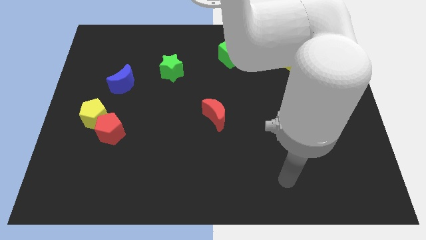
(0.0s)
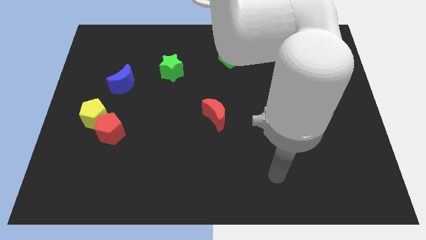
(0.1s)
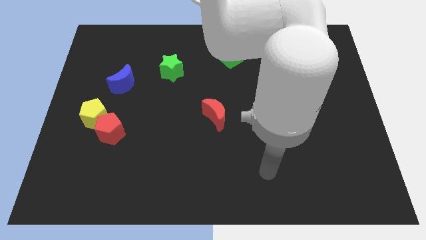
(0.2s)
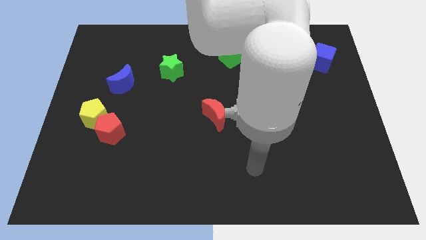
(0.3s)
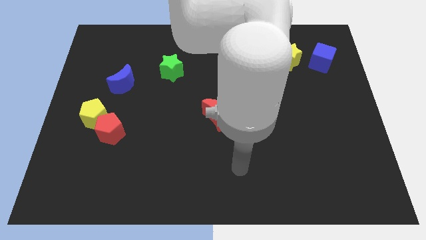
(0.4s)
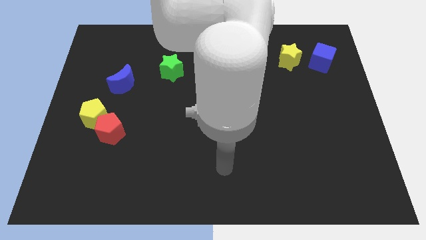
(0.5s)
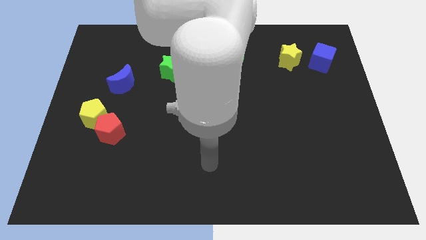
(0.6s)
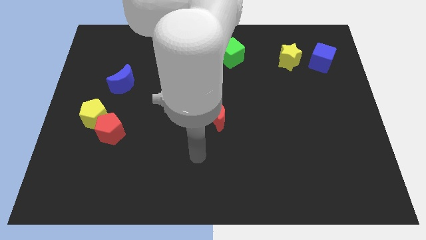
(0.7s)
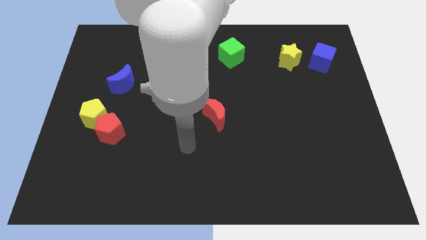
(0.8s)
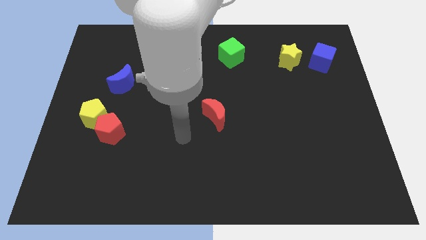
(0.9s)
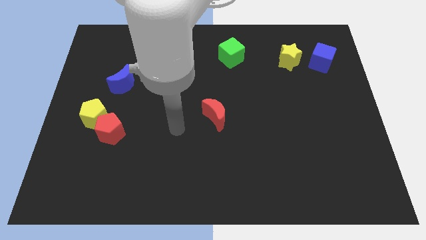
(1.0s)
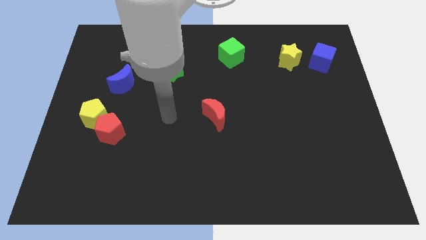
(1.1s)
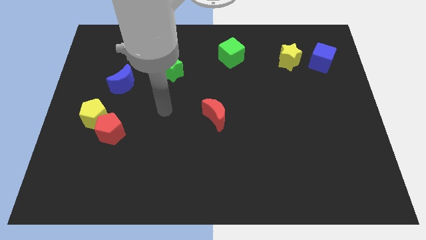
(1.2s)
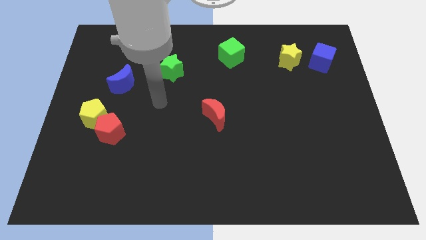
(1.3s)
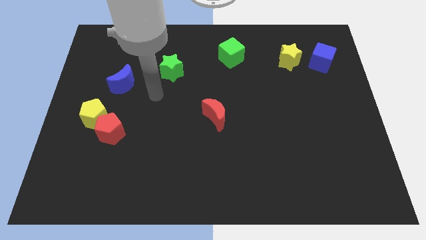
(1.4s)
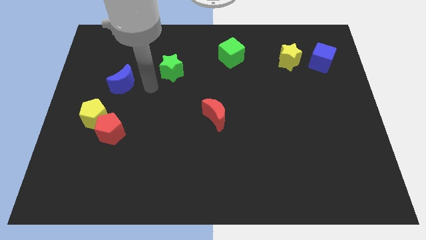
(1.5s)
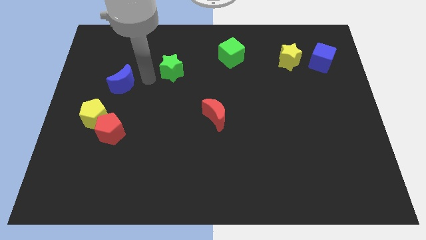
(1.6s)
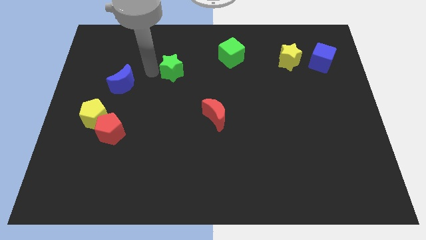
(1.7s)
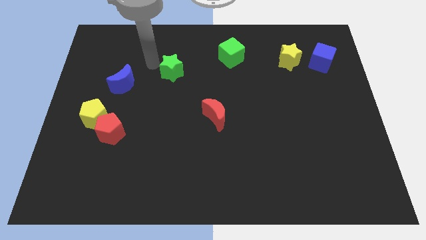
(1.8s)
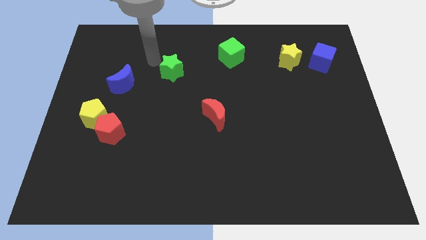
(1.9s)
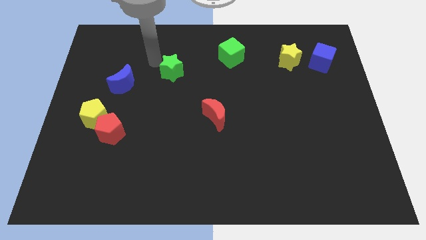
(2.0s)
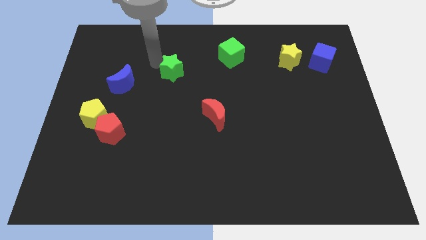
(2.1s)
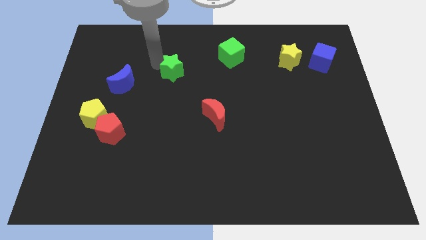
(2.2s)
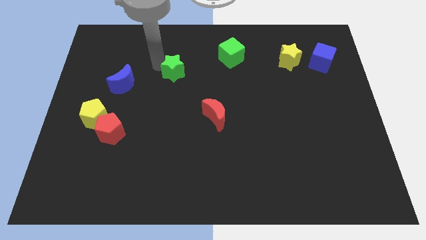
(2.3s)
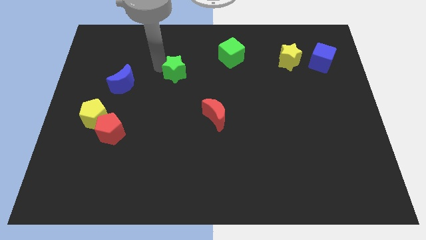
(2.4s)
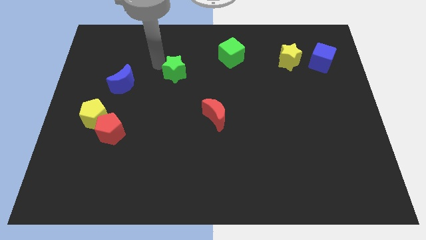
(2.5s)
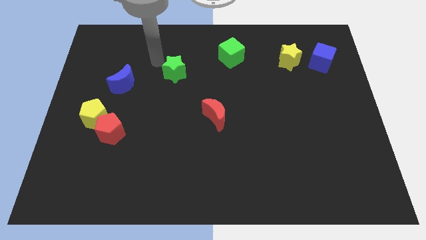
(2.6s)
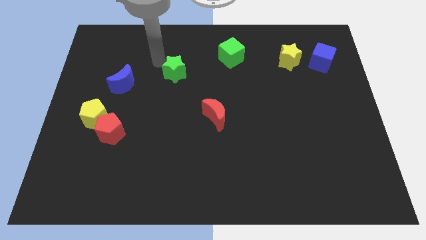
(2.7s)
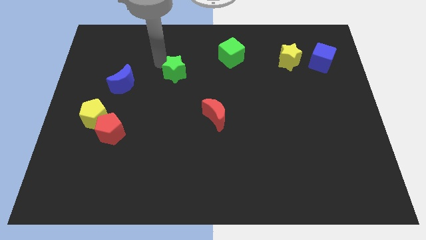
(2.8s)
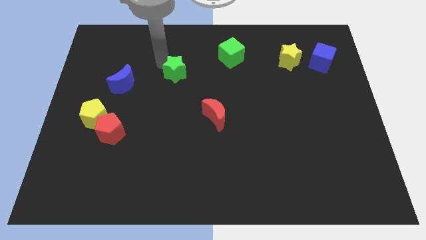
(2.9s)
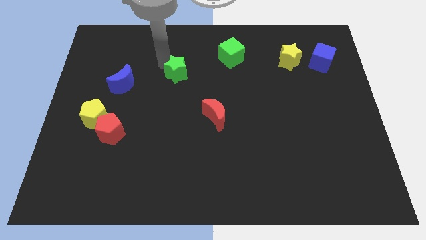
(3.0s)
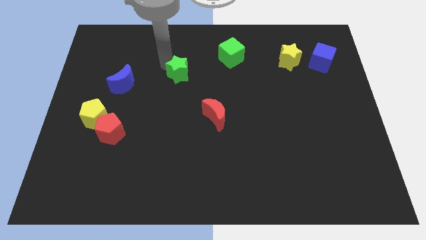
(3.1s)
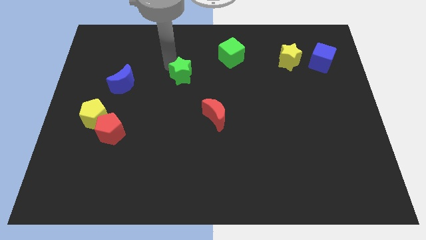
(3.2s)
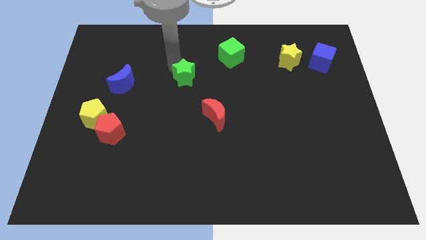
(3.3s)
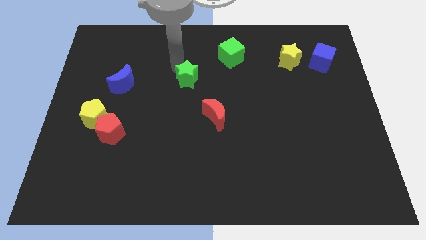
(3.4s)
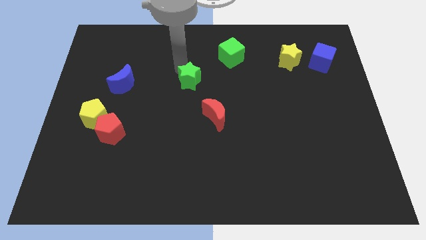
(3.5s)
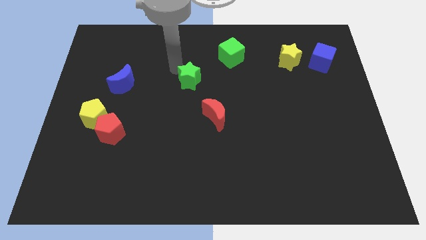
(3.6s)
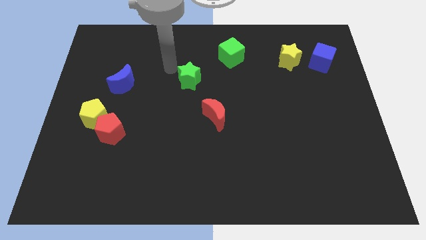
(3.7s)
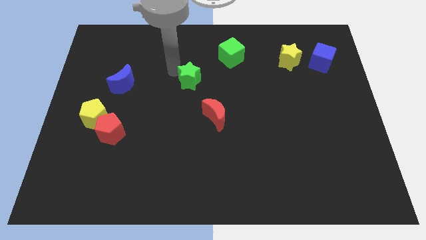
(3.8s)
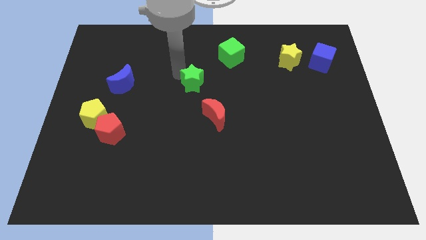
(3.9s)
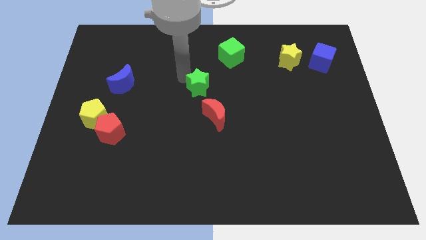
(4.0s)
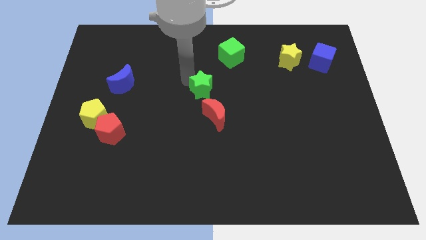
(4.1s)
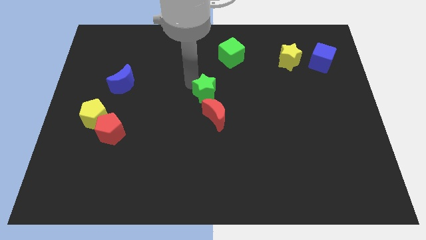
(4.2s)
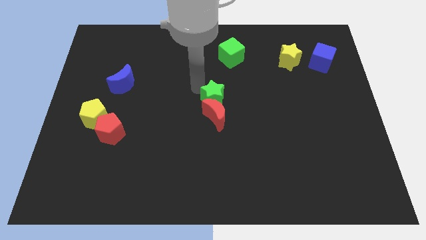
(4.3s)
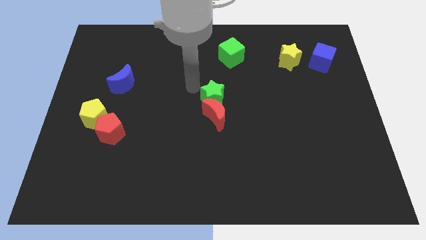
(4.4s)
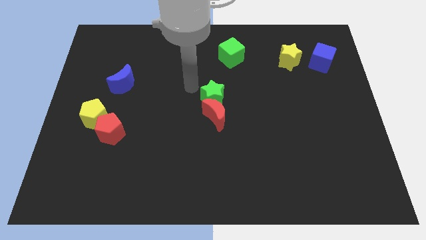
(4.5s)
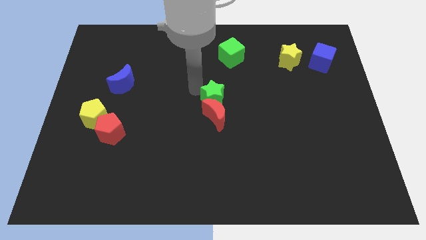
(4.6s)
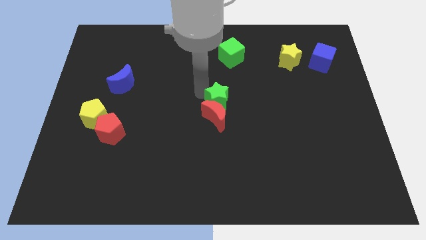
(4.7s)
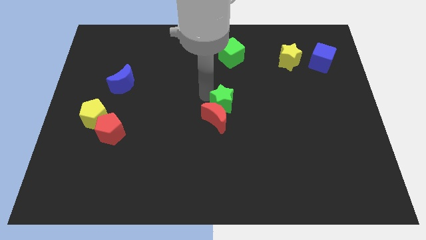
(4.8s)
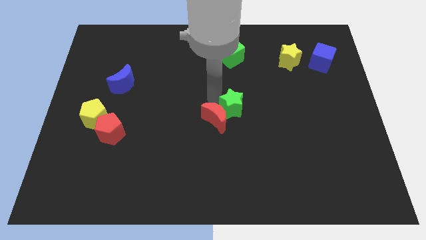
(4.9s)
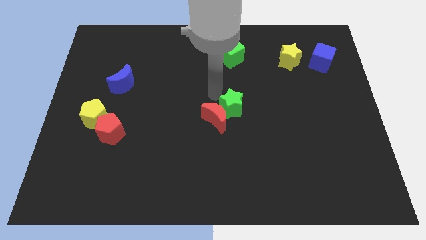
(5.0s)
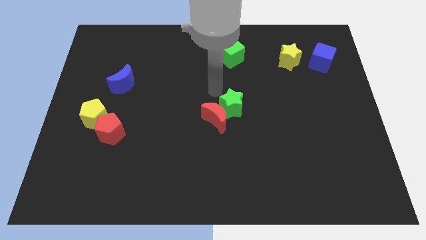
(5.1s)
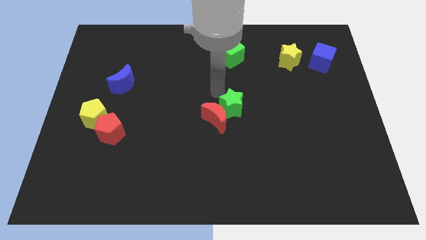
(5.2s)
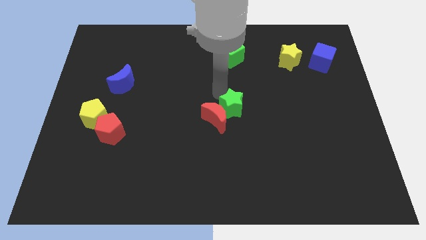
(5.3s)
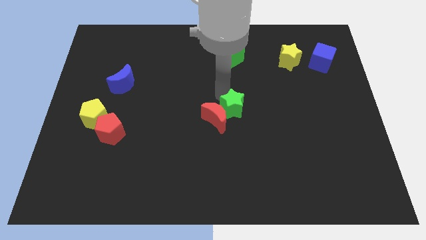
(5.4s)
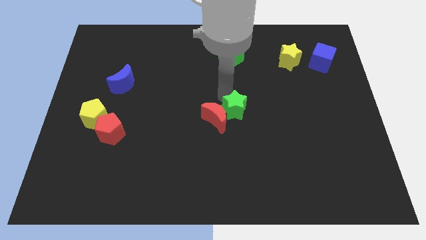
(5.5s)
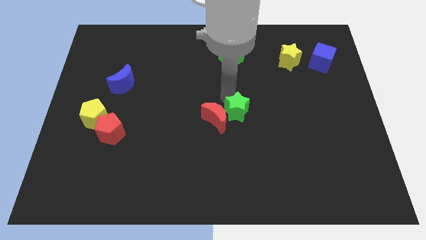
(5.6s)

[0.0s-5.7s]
slide the green star down and to the right diagonally

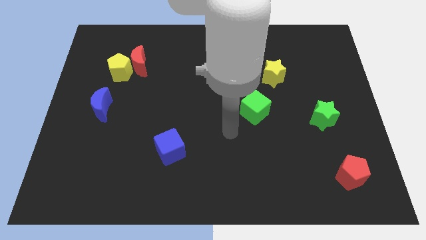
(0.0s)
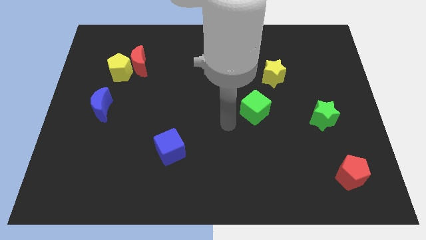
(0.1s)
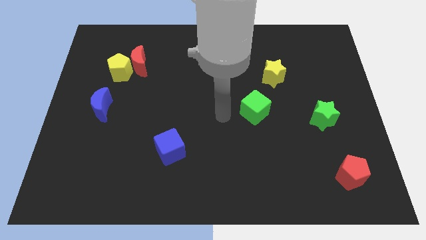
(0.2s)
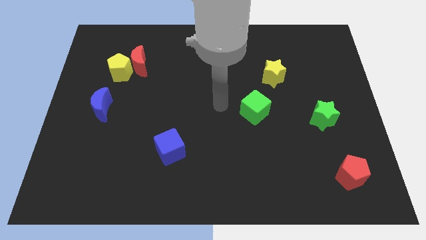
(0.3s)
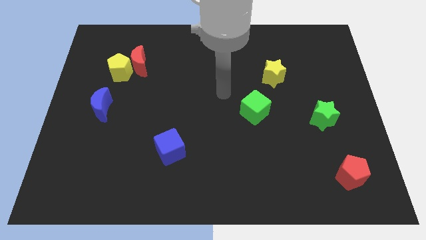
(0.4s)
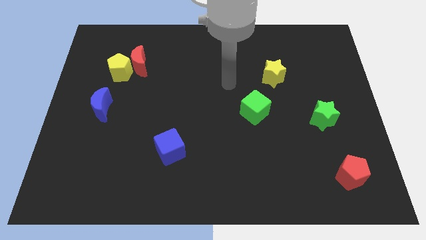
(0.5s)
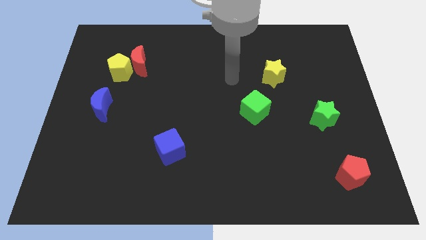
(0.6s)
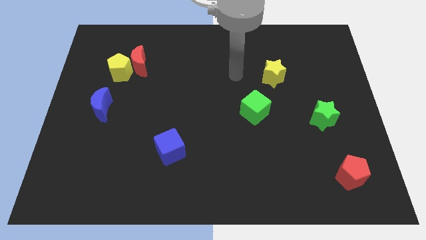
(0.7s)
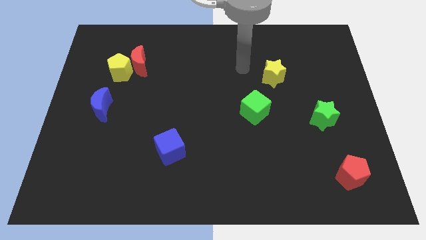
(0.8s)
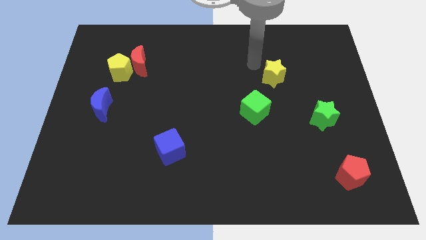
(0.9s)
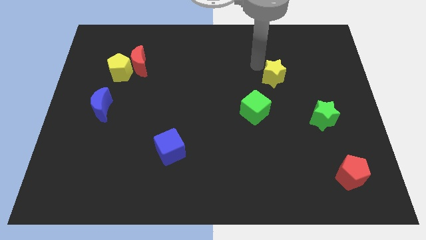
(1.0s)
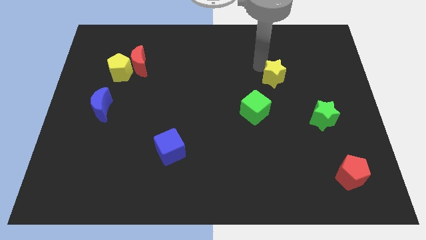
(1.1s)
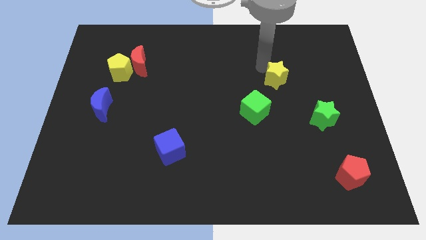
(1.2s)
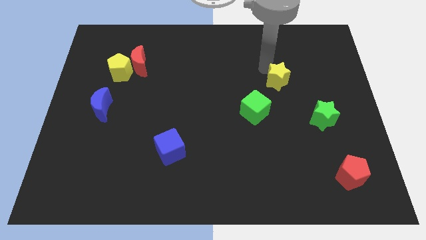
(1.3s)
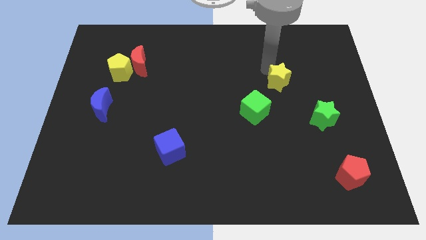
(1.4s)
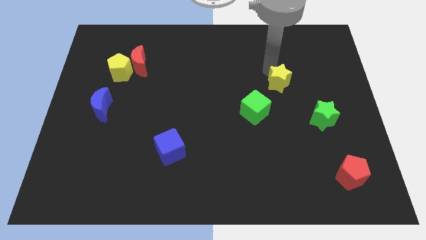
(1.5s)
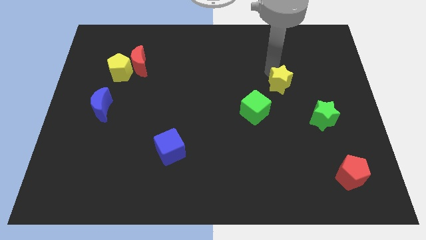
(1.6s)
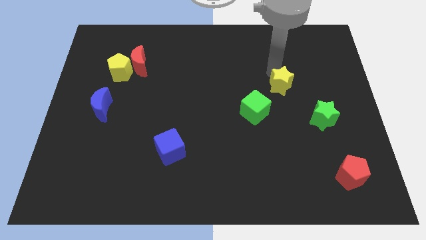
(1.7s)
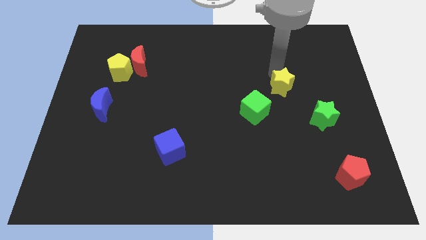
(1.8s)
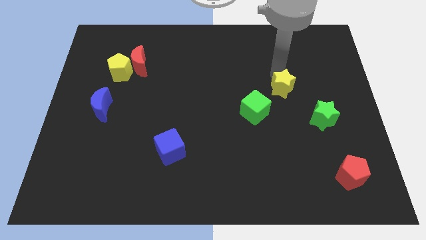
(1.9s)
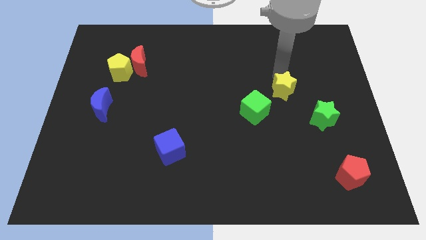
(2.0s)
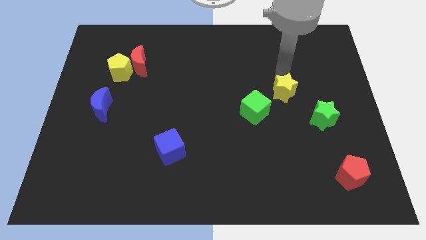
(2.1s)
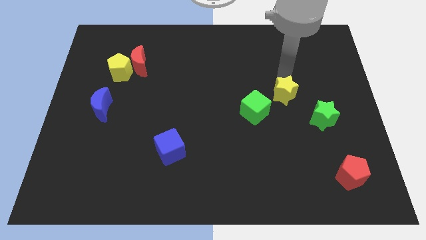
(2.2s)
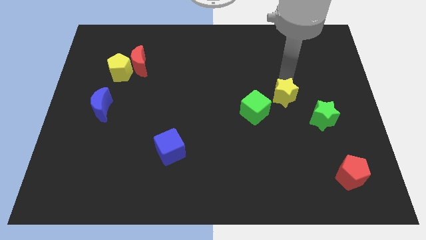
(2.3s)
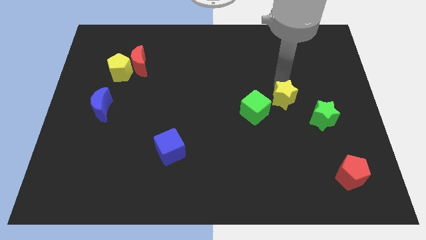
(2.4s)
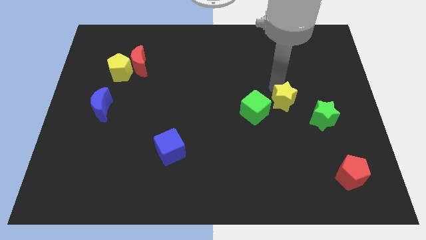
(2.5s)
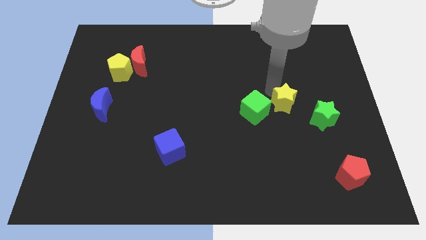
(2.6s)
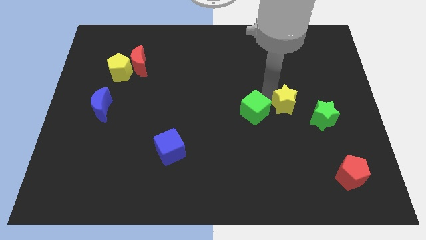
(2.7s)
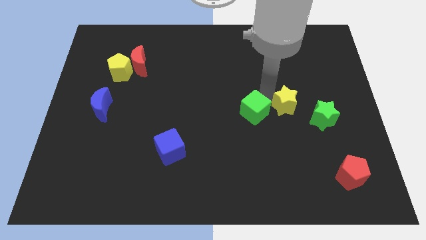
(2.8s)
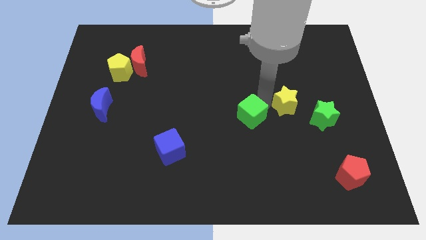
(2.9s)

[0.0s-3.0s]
slide the yellow star a bit down and then to the right
